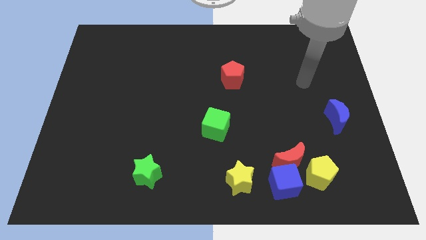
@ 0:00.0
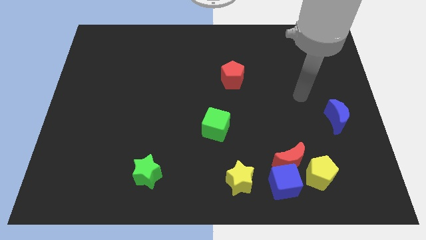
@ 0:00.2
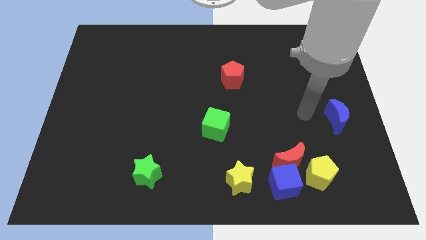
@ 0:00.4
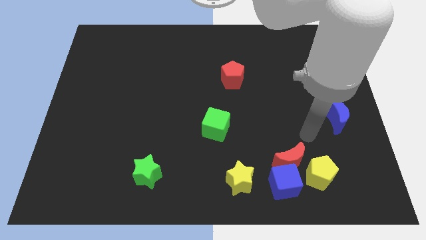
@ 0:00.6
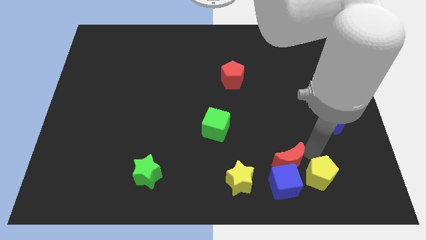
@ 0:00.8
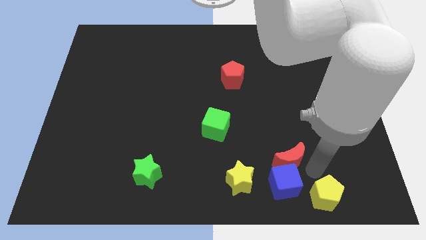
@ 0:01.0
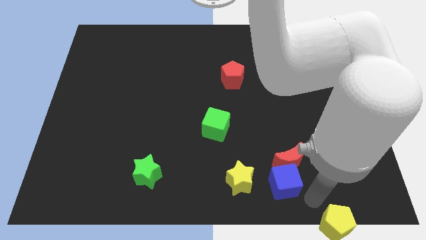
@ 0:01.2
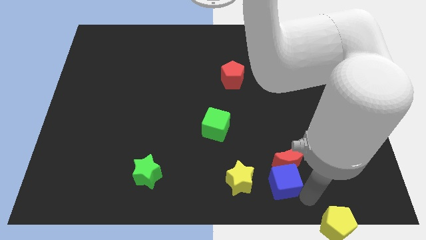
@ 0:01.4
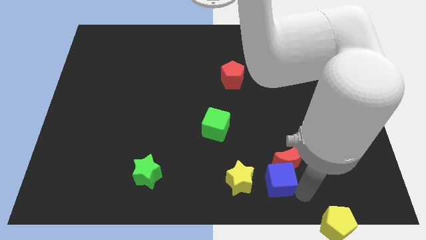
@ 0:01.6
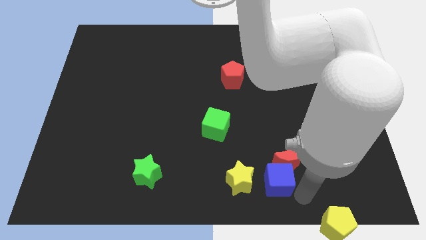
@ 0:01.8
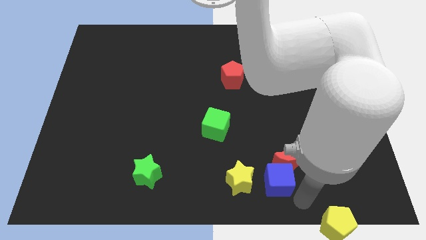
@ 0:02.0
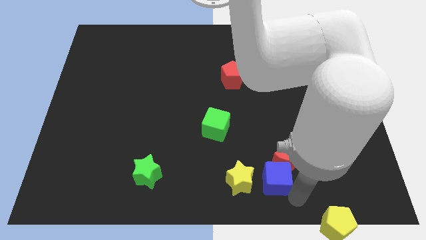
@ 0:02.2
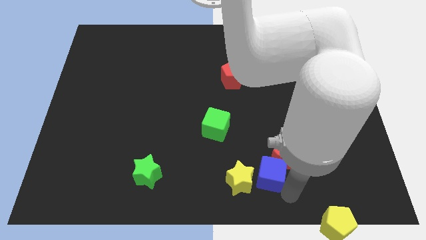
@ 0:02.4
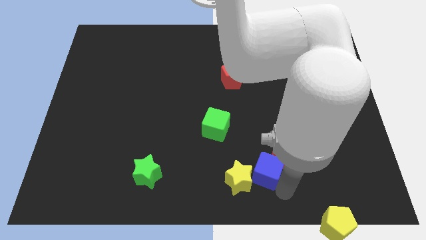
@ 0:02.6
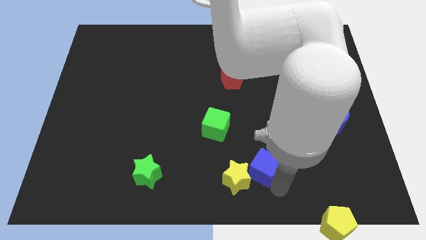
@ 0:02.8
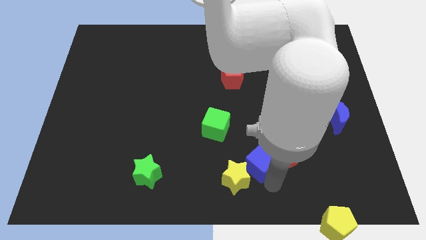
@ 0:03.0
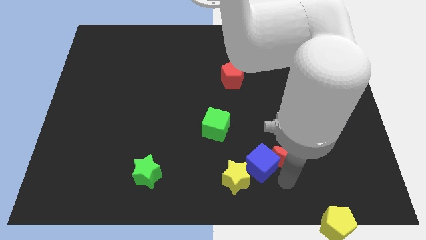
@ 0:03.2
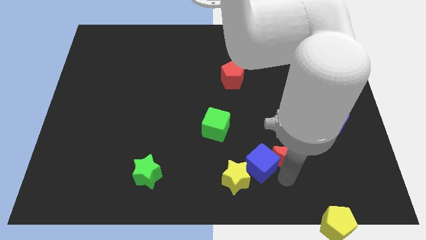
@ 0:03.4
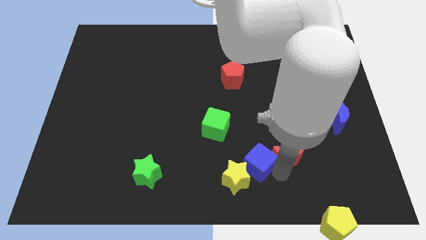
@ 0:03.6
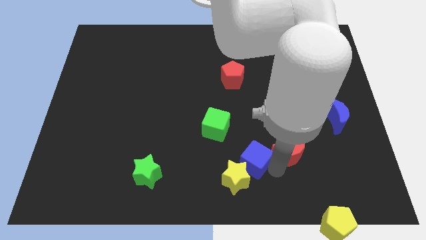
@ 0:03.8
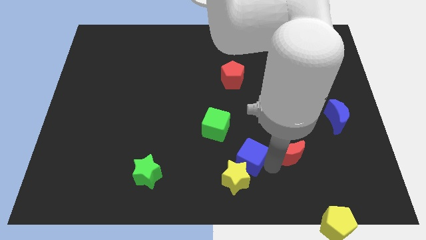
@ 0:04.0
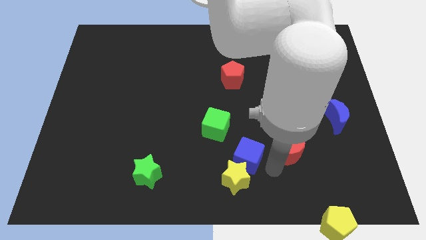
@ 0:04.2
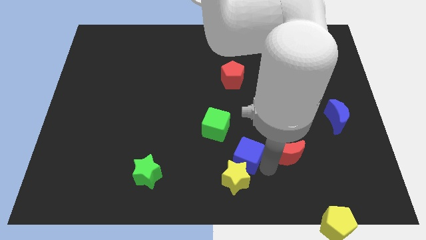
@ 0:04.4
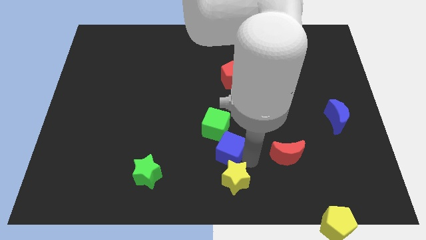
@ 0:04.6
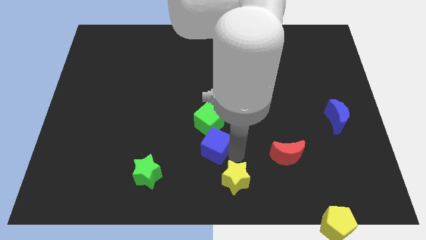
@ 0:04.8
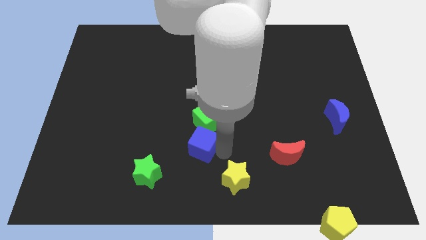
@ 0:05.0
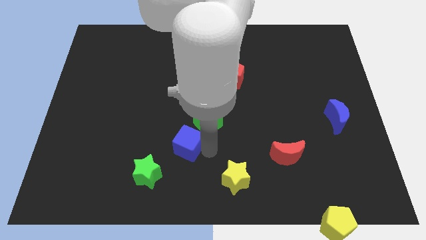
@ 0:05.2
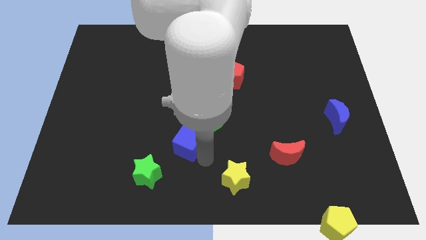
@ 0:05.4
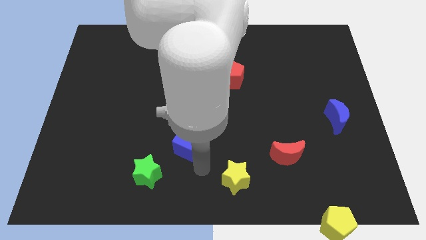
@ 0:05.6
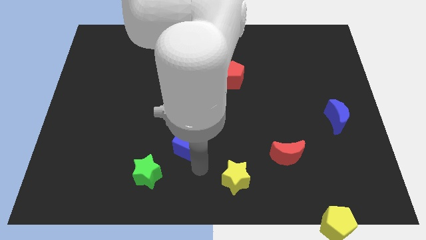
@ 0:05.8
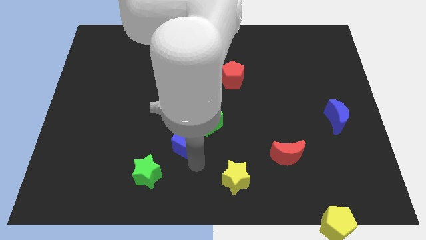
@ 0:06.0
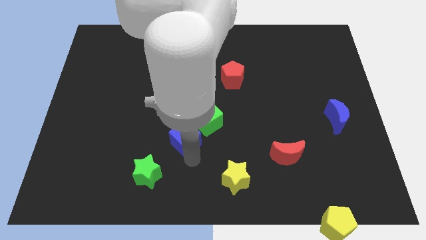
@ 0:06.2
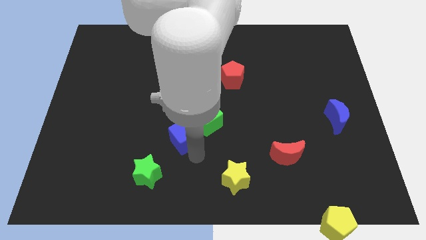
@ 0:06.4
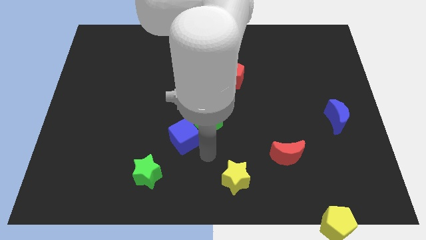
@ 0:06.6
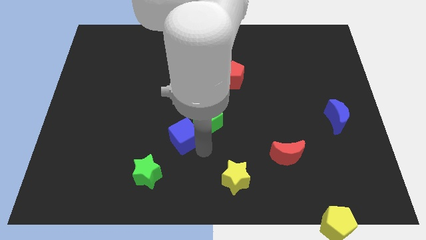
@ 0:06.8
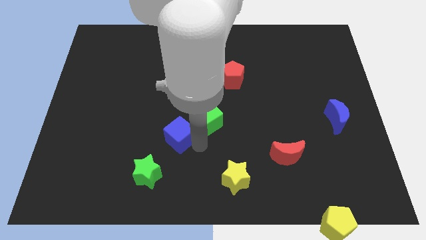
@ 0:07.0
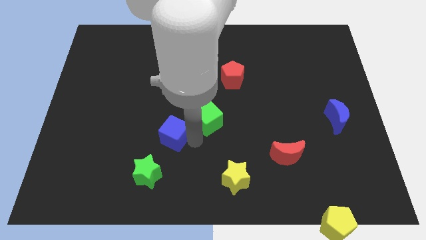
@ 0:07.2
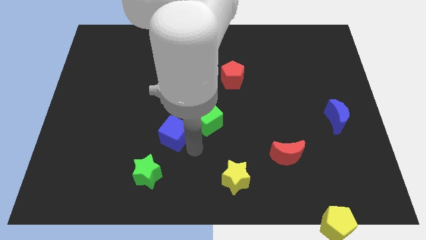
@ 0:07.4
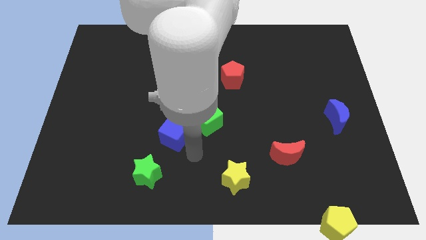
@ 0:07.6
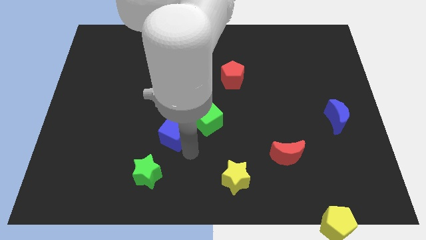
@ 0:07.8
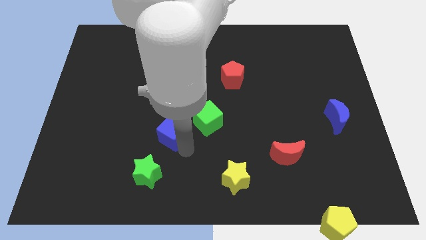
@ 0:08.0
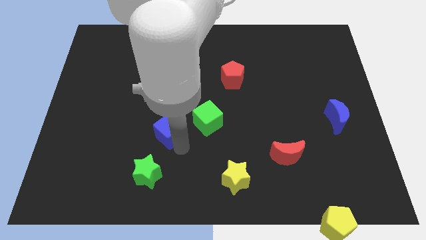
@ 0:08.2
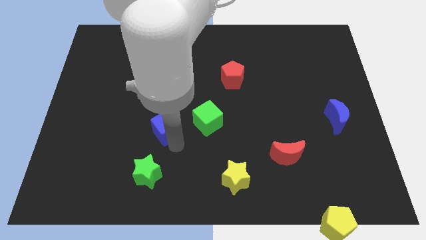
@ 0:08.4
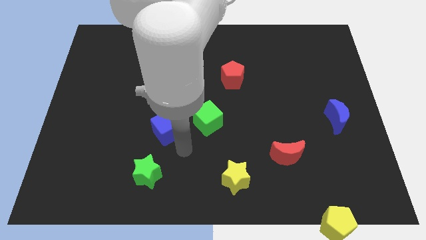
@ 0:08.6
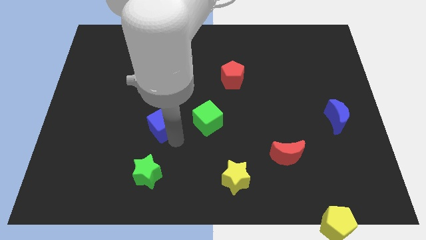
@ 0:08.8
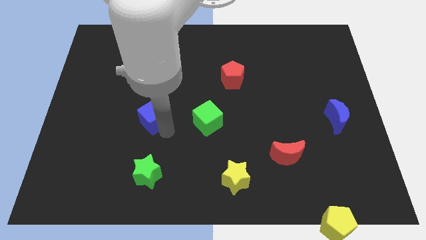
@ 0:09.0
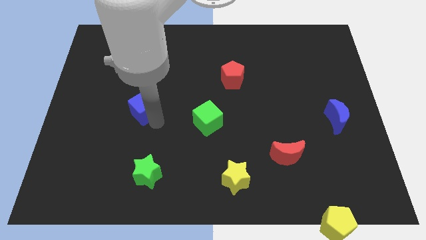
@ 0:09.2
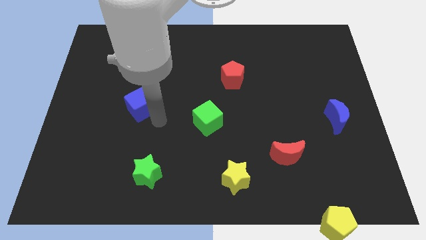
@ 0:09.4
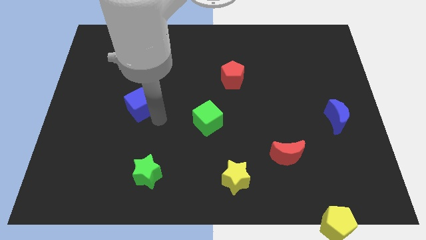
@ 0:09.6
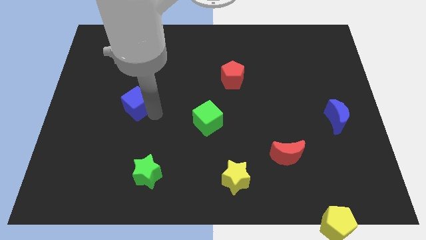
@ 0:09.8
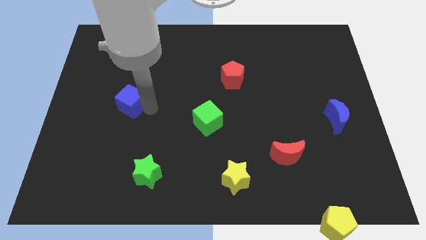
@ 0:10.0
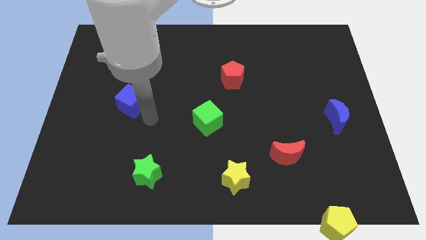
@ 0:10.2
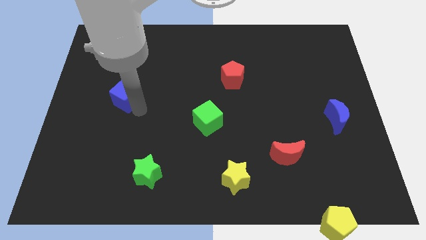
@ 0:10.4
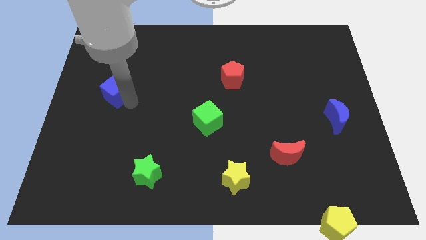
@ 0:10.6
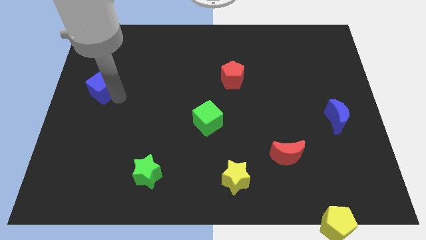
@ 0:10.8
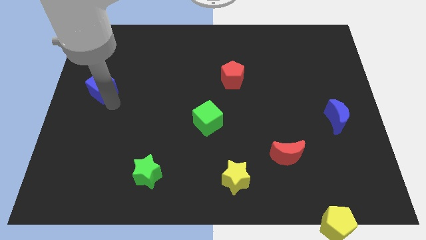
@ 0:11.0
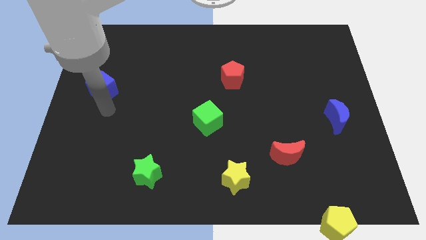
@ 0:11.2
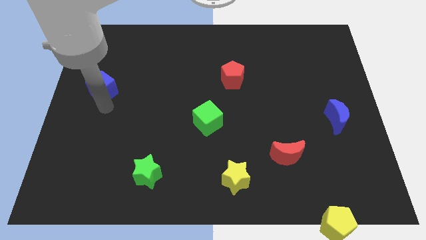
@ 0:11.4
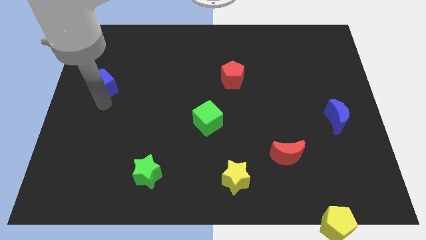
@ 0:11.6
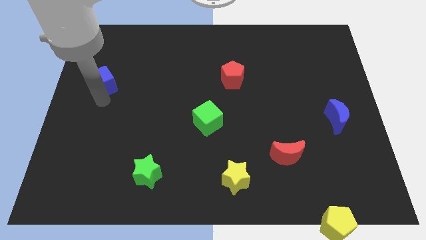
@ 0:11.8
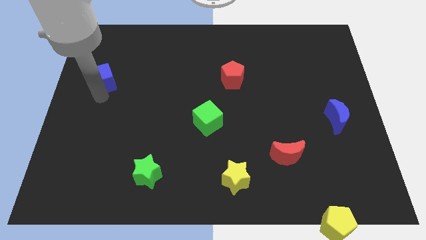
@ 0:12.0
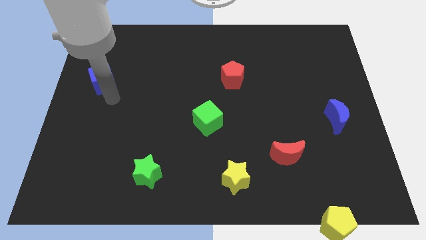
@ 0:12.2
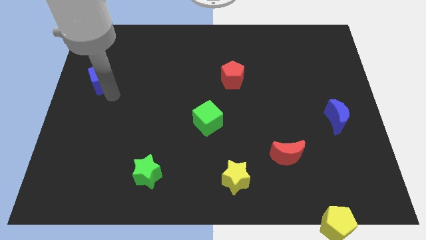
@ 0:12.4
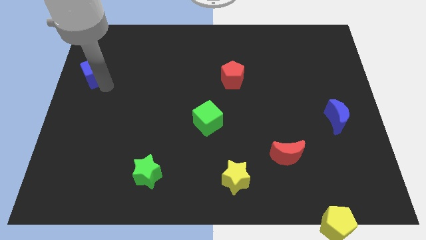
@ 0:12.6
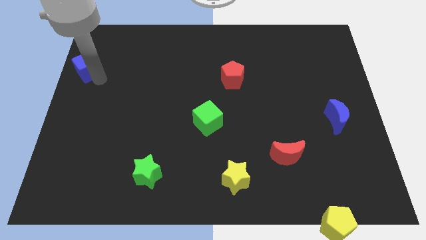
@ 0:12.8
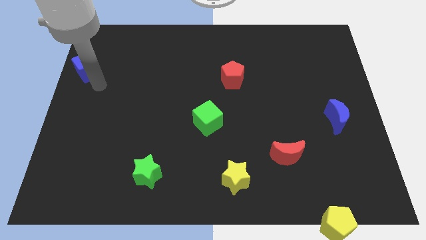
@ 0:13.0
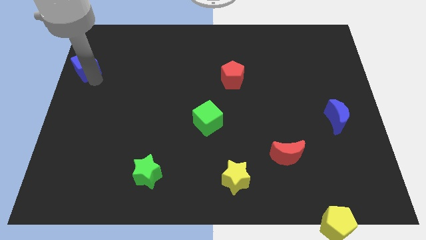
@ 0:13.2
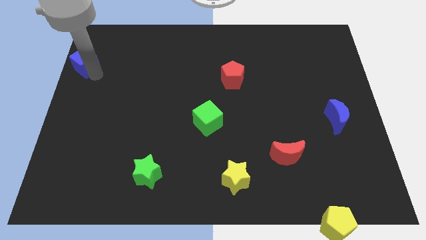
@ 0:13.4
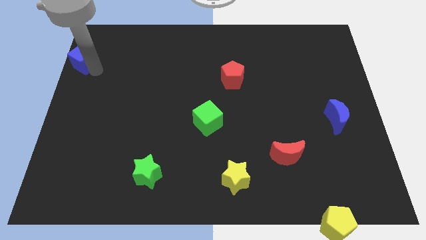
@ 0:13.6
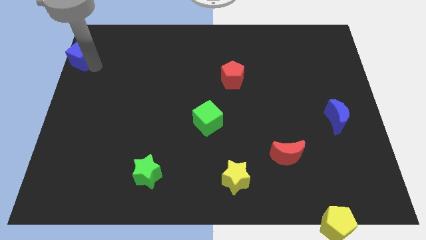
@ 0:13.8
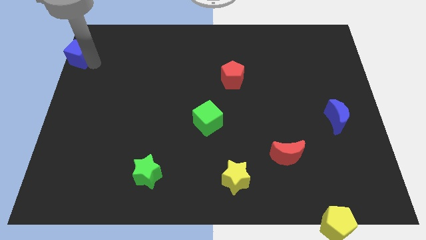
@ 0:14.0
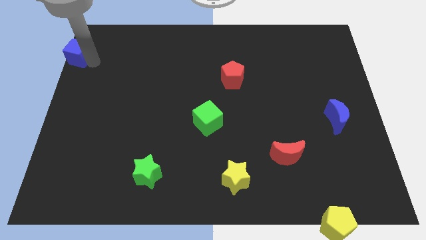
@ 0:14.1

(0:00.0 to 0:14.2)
slide the blue cube to the top left
